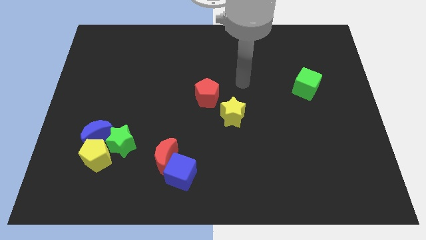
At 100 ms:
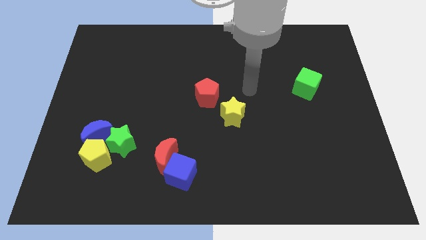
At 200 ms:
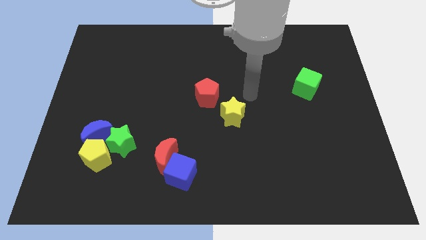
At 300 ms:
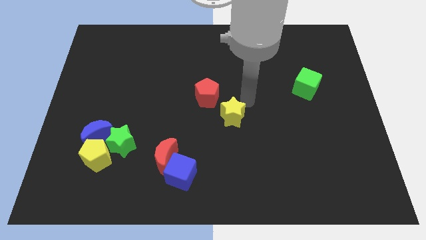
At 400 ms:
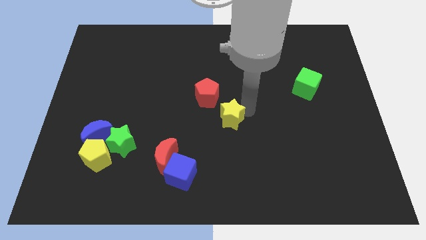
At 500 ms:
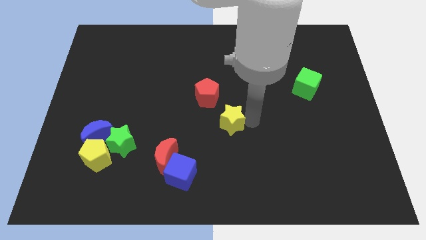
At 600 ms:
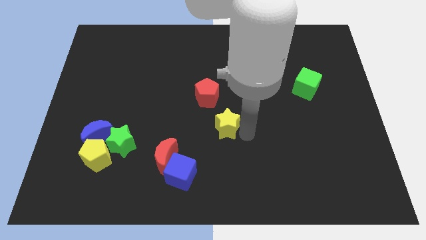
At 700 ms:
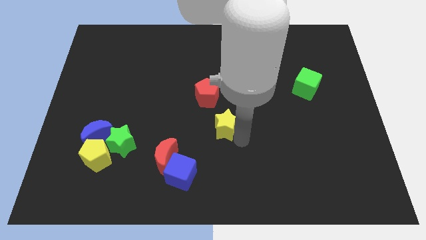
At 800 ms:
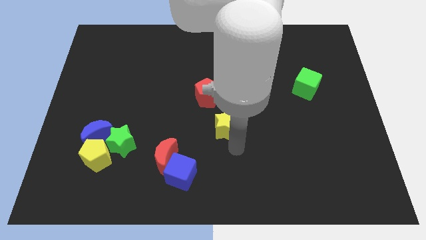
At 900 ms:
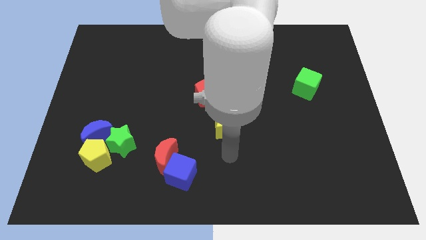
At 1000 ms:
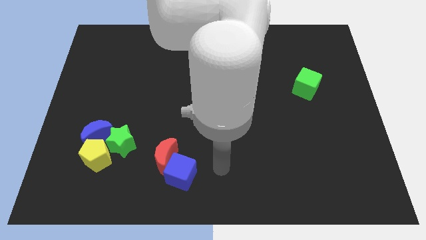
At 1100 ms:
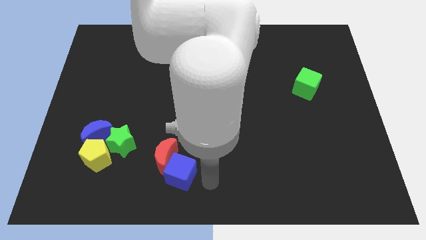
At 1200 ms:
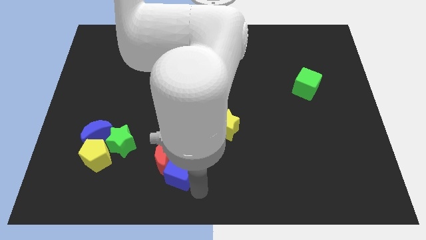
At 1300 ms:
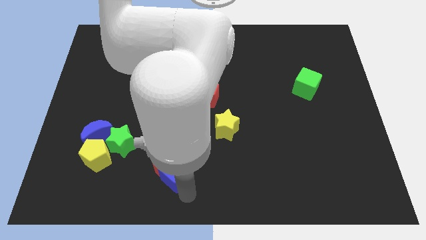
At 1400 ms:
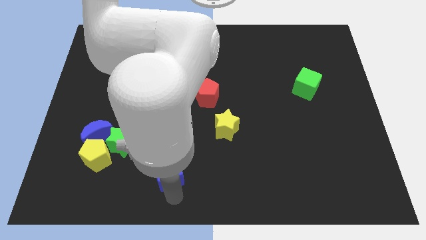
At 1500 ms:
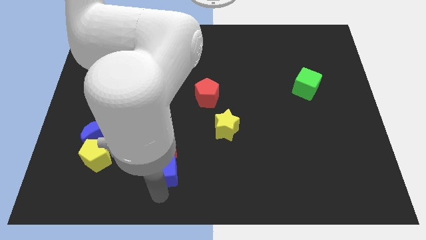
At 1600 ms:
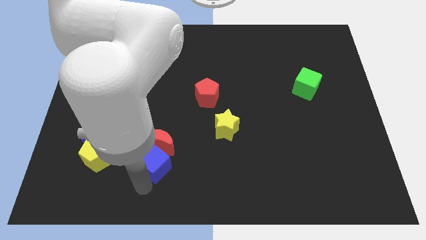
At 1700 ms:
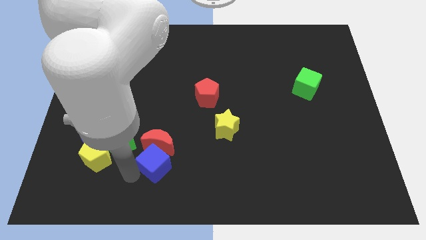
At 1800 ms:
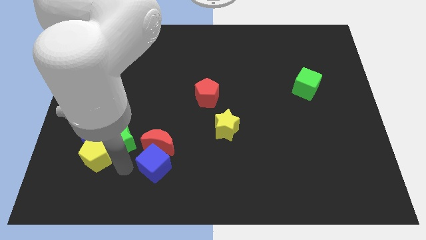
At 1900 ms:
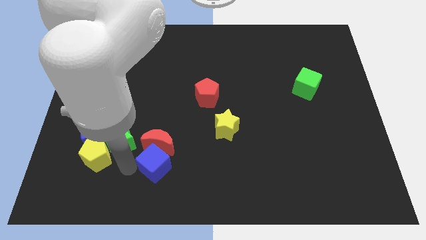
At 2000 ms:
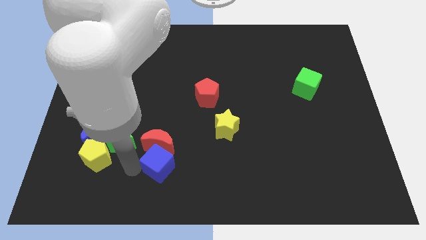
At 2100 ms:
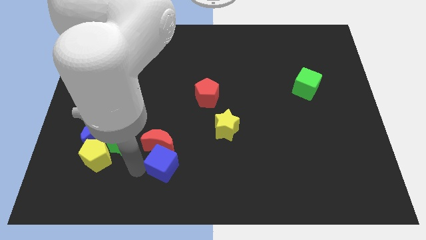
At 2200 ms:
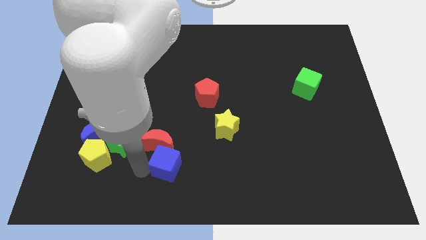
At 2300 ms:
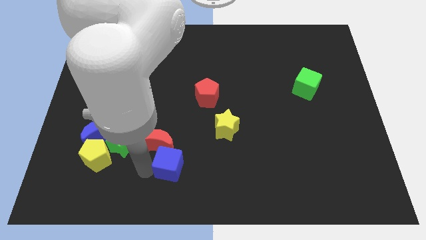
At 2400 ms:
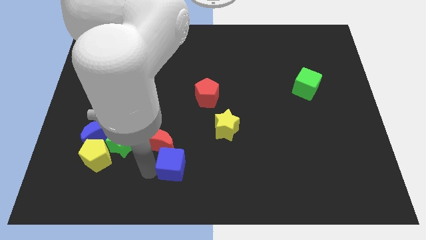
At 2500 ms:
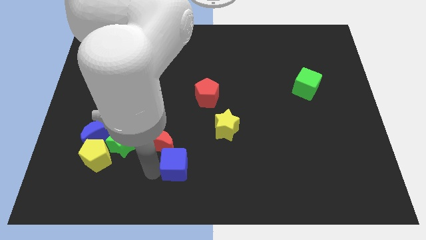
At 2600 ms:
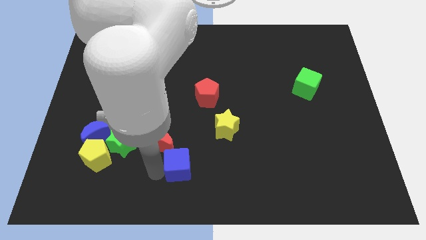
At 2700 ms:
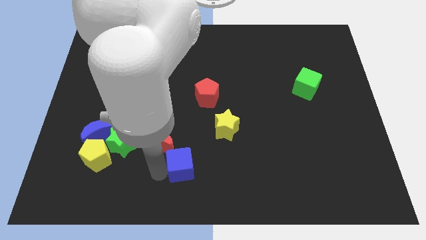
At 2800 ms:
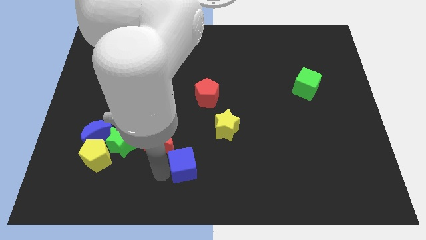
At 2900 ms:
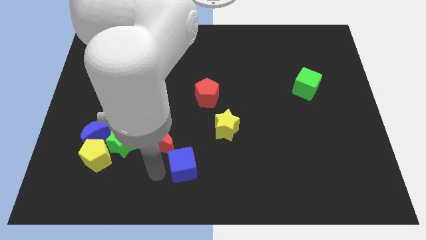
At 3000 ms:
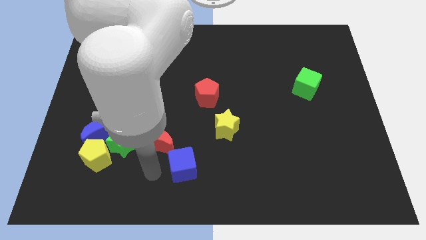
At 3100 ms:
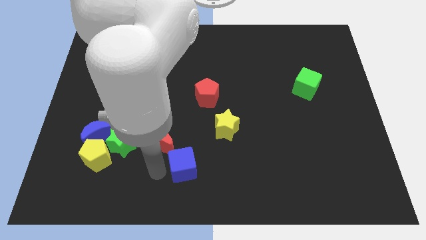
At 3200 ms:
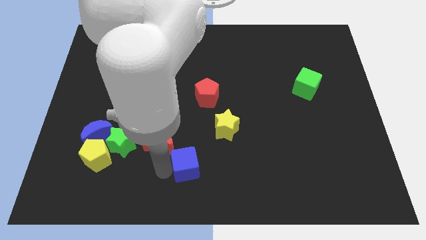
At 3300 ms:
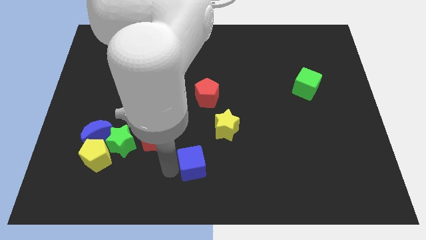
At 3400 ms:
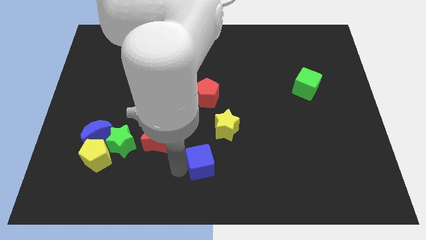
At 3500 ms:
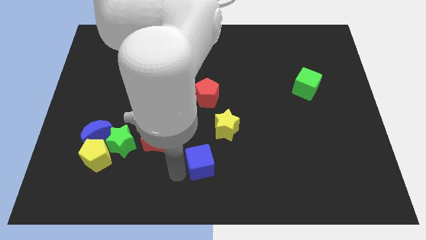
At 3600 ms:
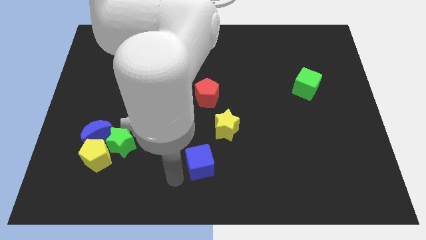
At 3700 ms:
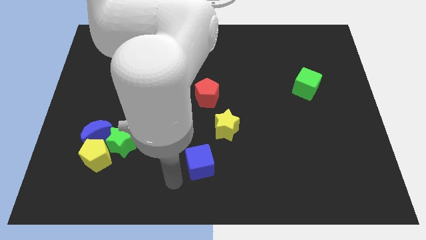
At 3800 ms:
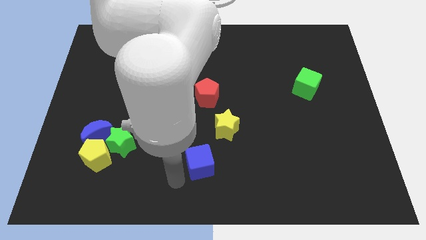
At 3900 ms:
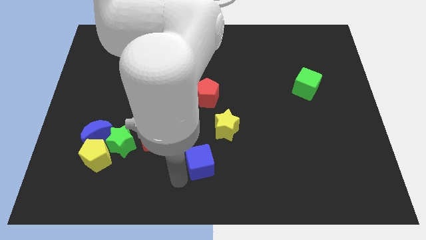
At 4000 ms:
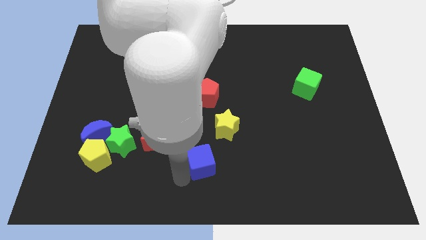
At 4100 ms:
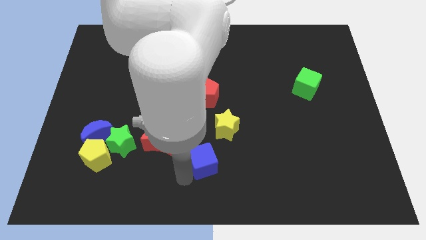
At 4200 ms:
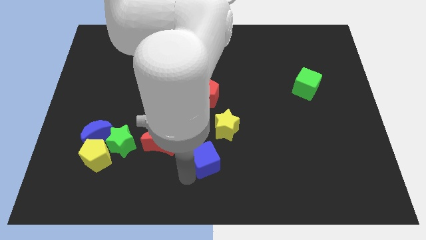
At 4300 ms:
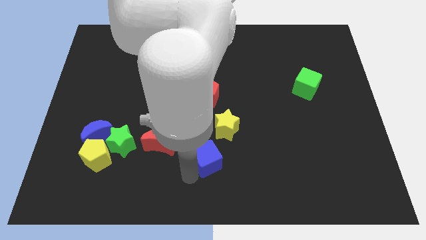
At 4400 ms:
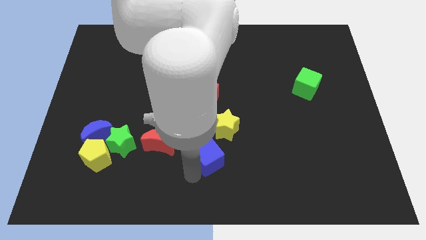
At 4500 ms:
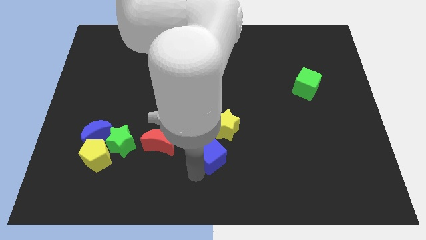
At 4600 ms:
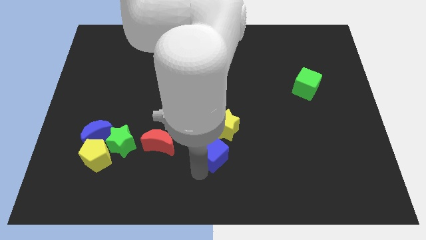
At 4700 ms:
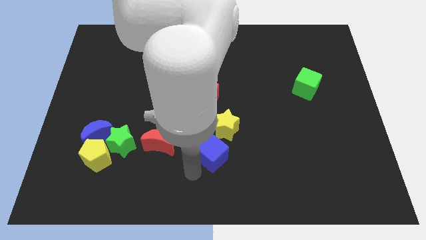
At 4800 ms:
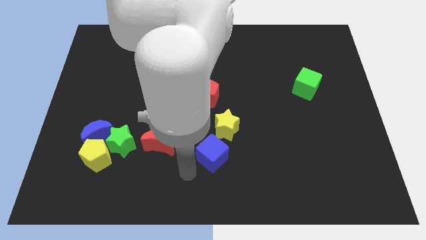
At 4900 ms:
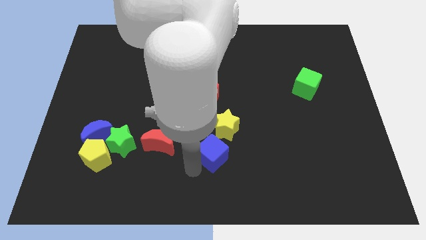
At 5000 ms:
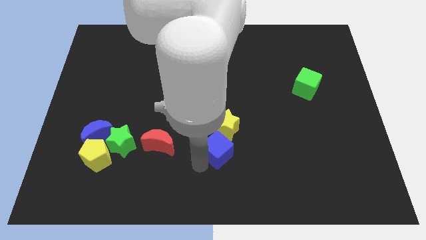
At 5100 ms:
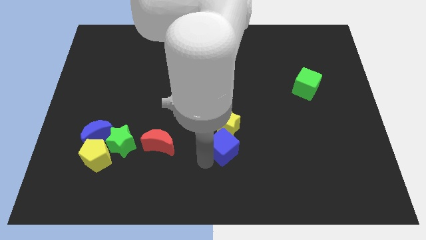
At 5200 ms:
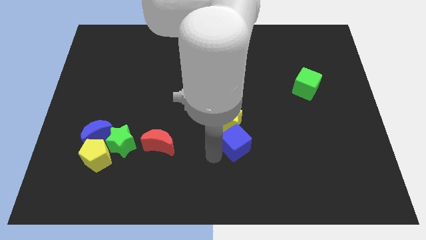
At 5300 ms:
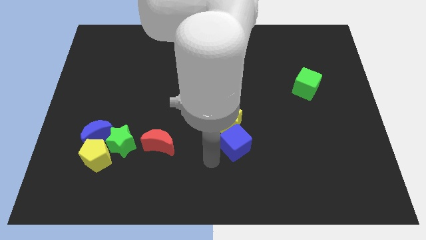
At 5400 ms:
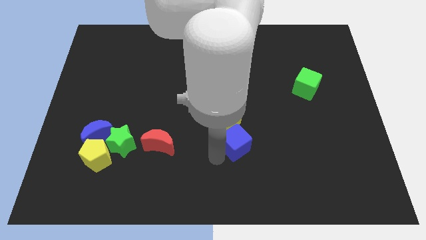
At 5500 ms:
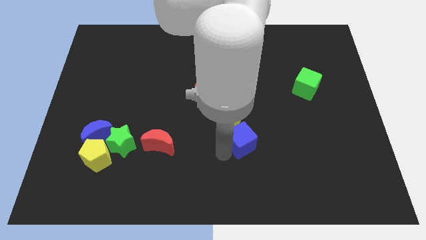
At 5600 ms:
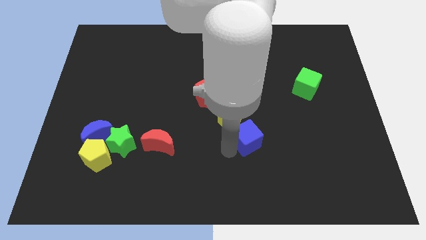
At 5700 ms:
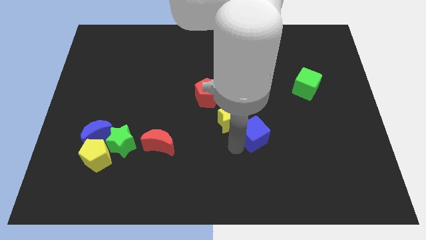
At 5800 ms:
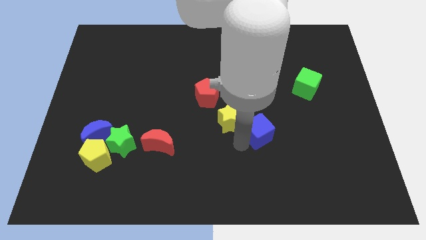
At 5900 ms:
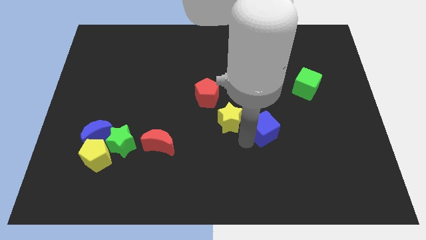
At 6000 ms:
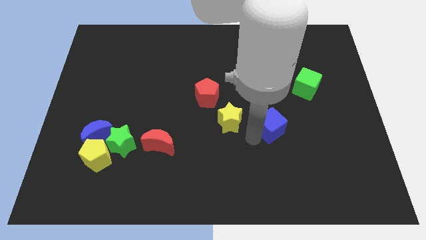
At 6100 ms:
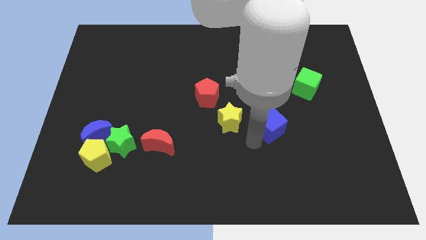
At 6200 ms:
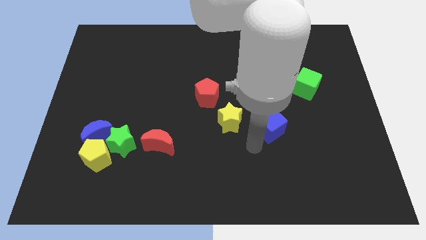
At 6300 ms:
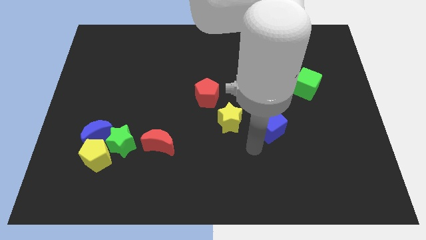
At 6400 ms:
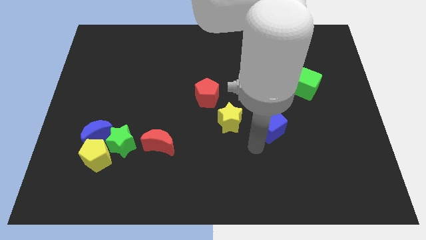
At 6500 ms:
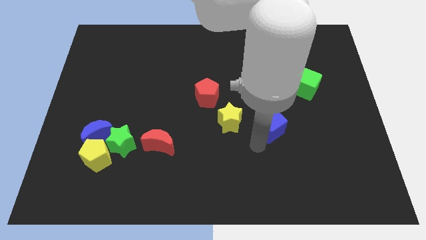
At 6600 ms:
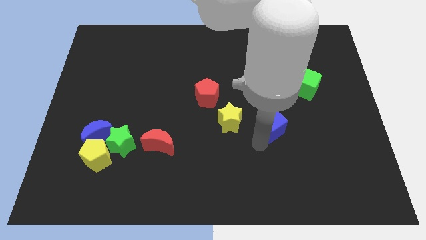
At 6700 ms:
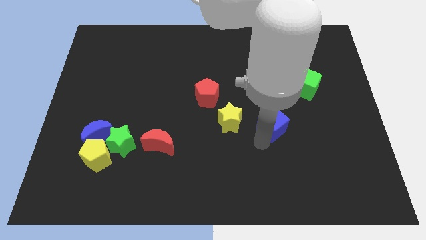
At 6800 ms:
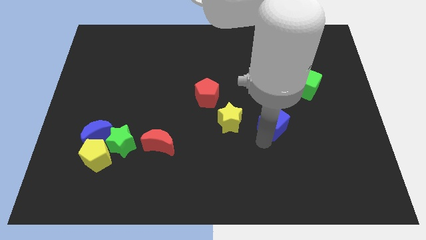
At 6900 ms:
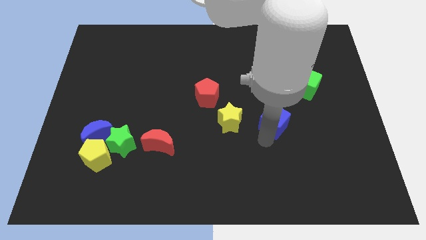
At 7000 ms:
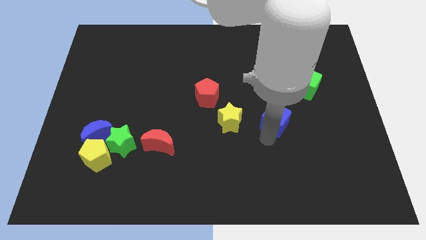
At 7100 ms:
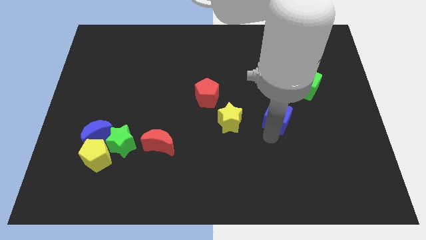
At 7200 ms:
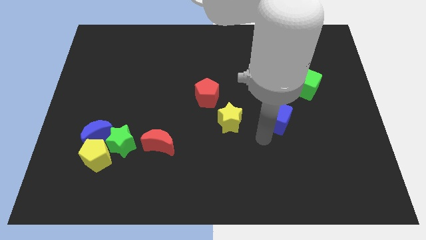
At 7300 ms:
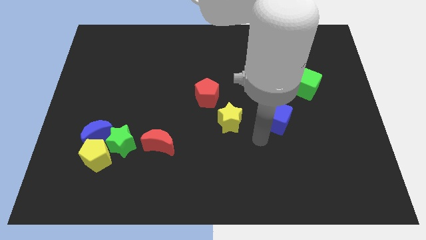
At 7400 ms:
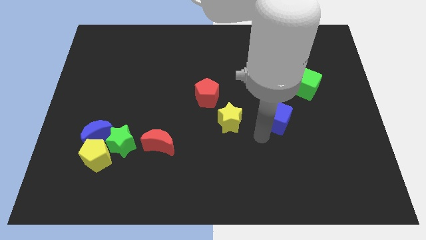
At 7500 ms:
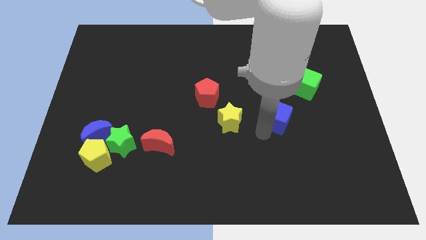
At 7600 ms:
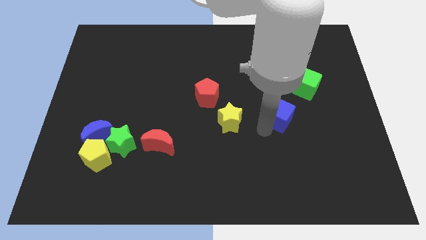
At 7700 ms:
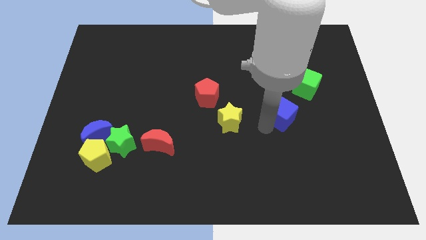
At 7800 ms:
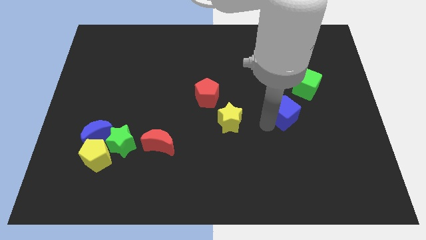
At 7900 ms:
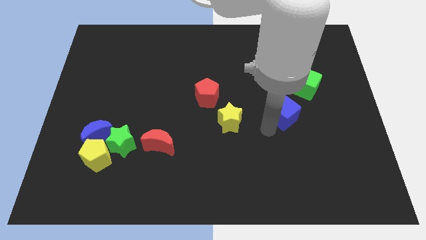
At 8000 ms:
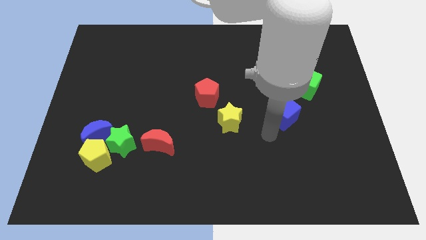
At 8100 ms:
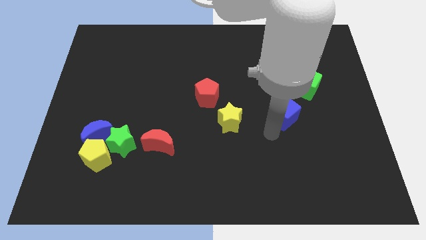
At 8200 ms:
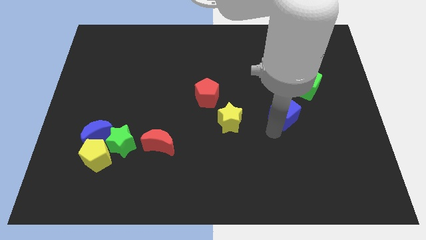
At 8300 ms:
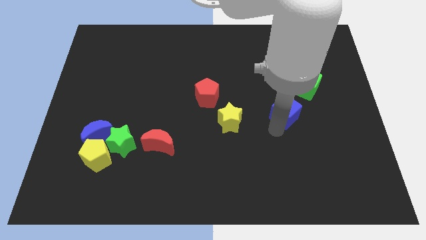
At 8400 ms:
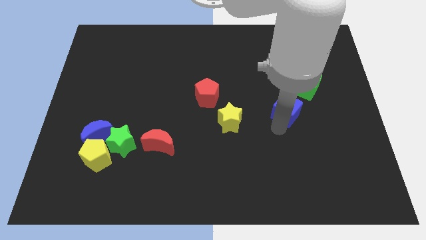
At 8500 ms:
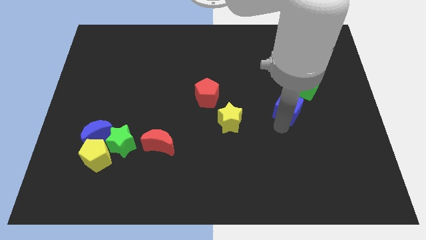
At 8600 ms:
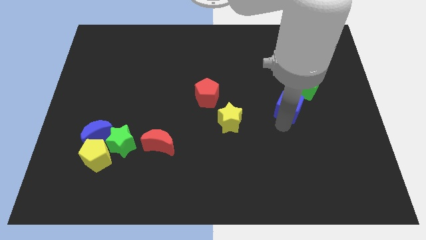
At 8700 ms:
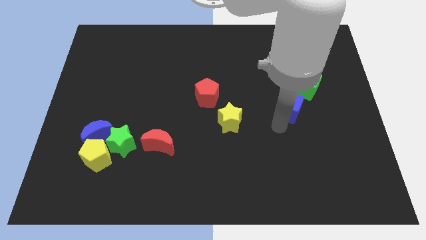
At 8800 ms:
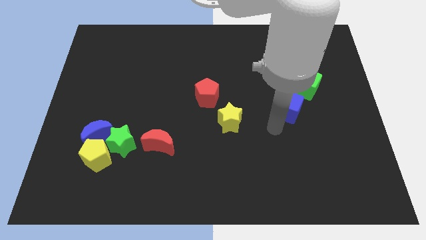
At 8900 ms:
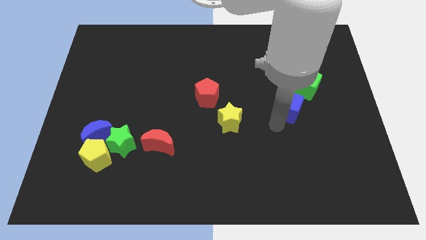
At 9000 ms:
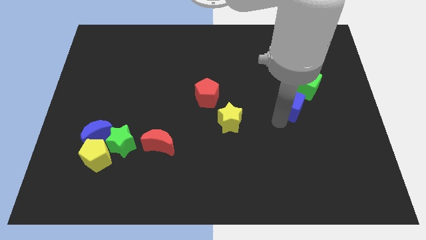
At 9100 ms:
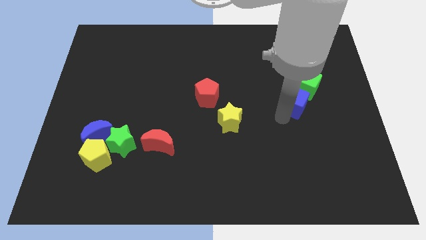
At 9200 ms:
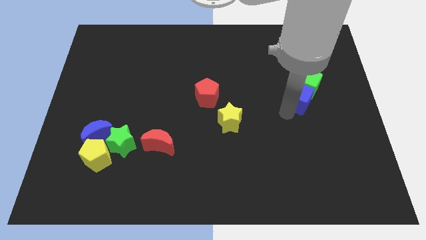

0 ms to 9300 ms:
move the blue cube to the green cube
